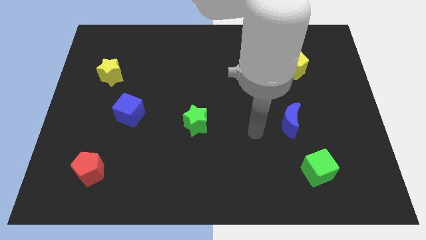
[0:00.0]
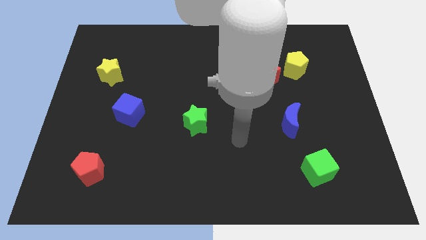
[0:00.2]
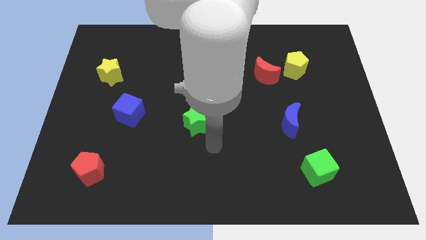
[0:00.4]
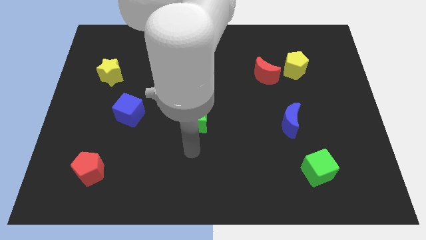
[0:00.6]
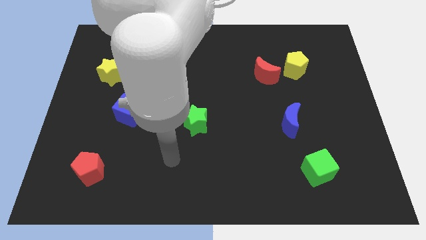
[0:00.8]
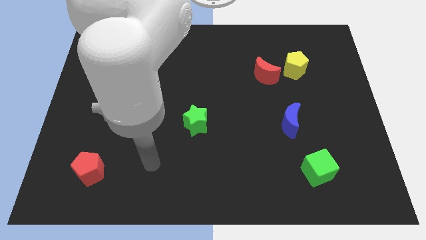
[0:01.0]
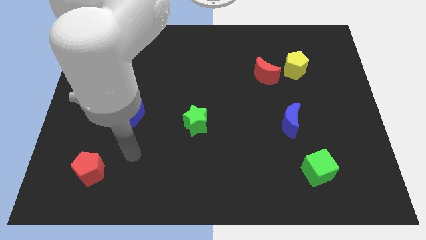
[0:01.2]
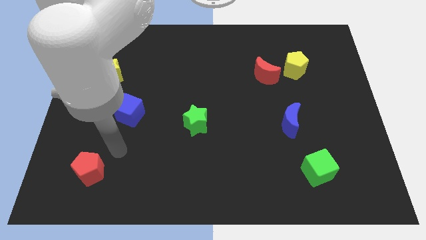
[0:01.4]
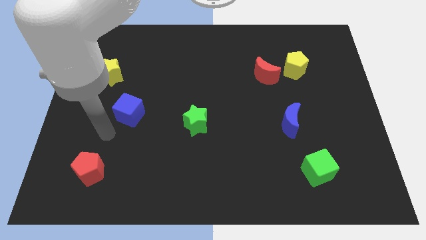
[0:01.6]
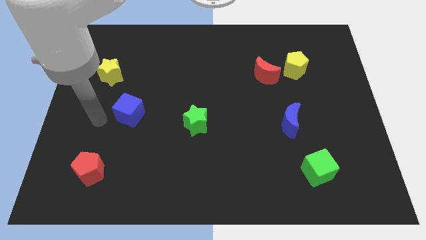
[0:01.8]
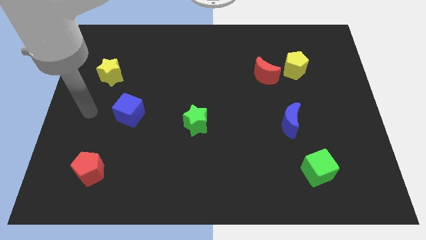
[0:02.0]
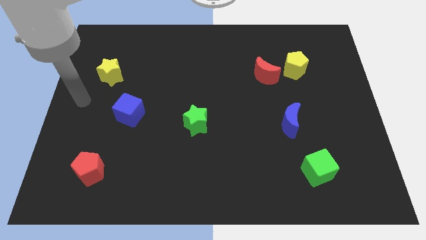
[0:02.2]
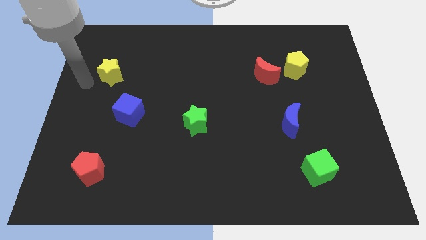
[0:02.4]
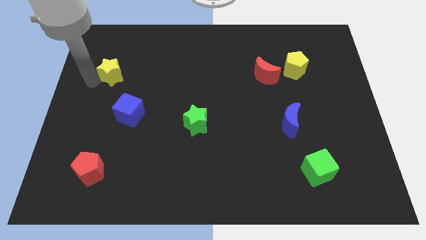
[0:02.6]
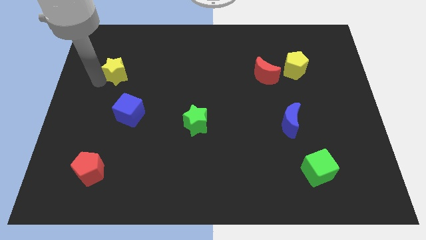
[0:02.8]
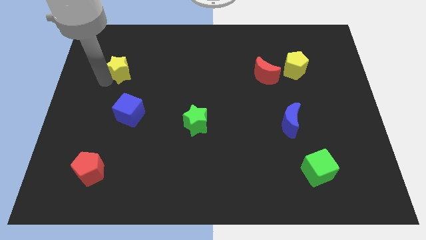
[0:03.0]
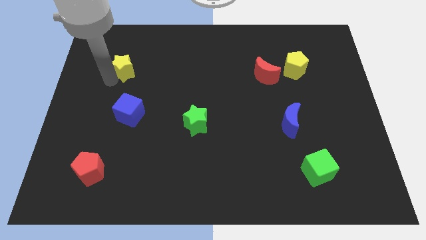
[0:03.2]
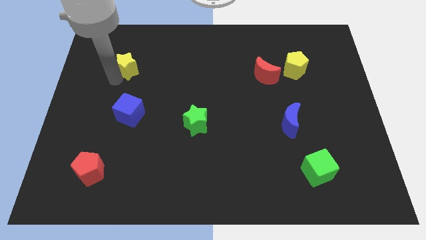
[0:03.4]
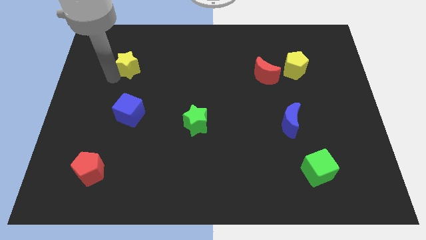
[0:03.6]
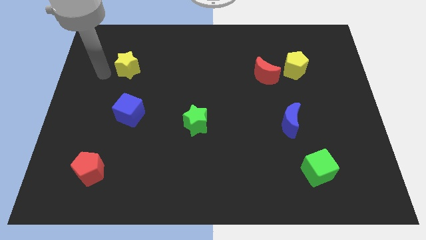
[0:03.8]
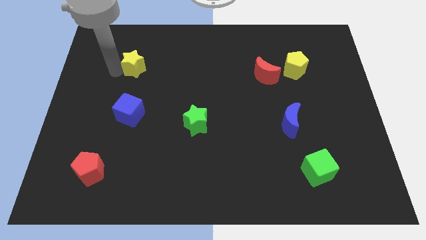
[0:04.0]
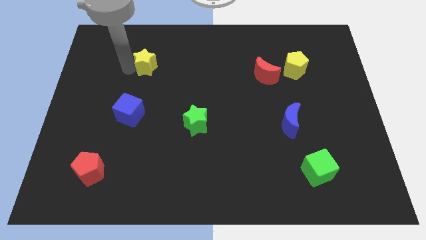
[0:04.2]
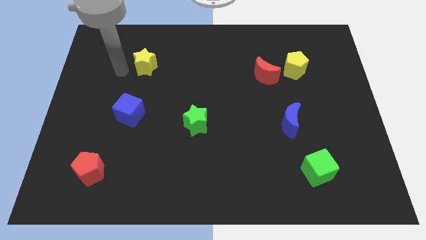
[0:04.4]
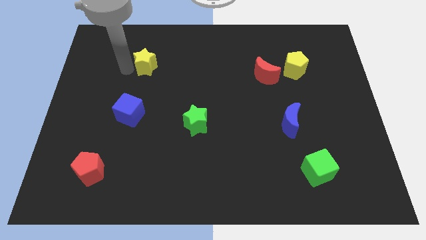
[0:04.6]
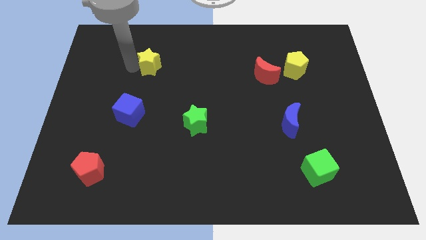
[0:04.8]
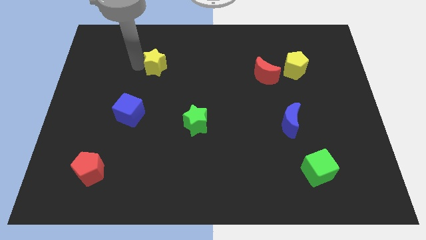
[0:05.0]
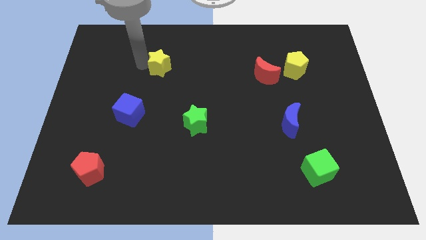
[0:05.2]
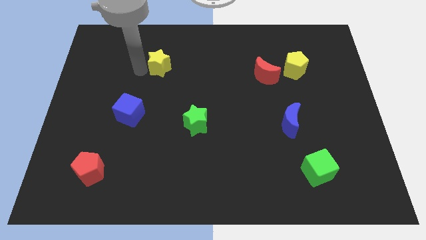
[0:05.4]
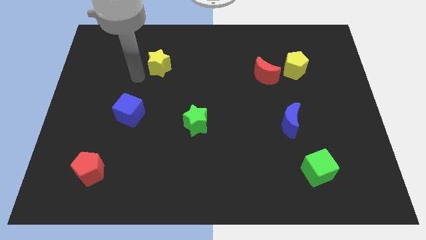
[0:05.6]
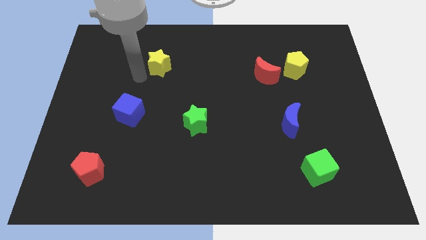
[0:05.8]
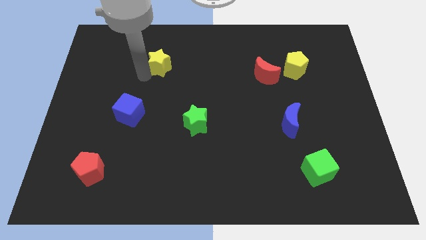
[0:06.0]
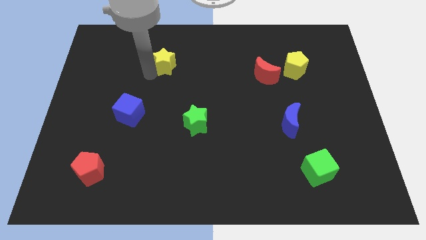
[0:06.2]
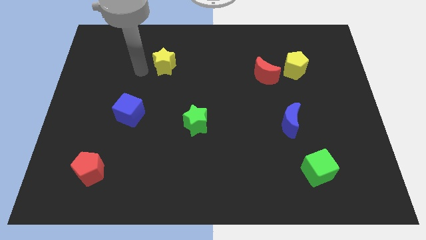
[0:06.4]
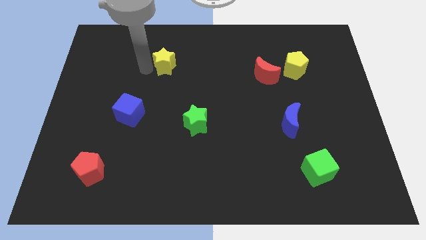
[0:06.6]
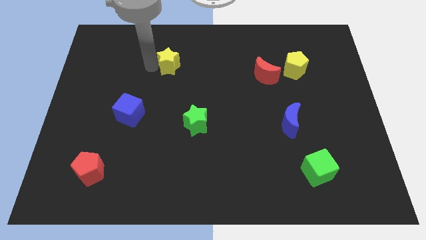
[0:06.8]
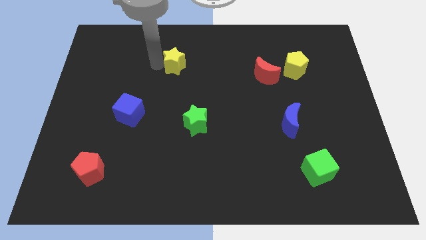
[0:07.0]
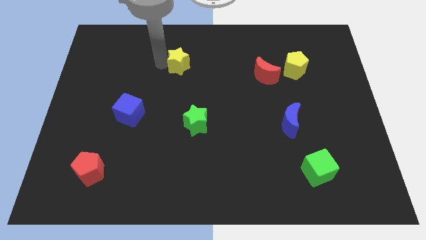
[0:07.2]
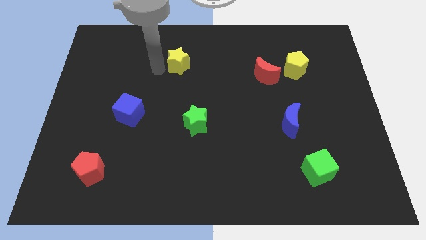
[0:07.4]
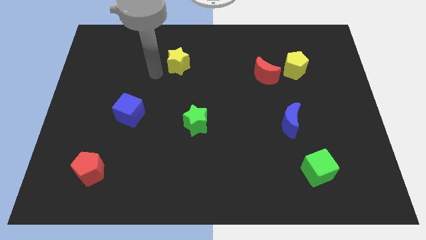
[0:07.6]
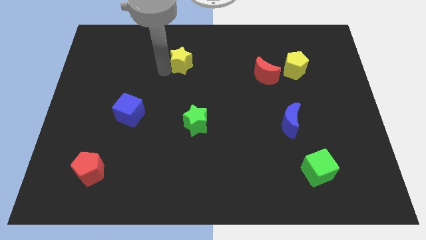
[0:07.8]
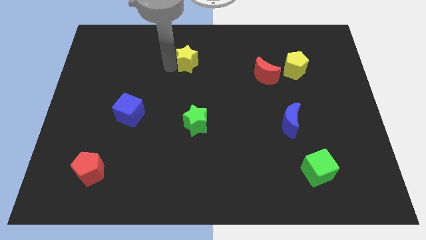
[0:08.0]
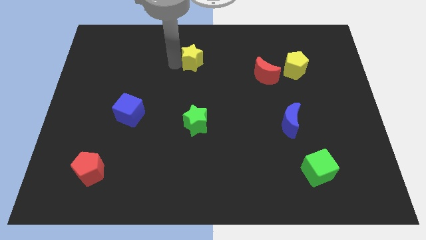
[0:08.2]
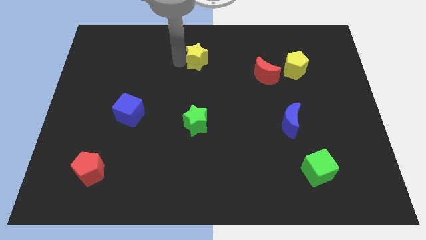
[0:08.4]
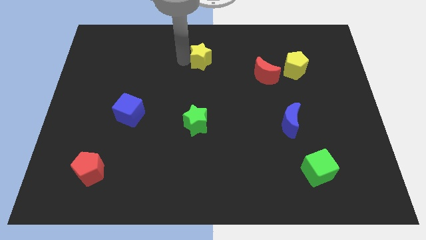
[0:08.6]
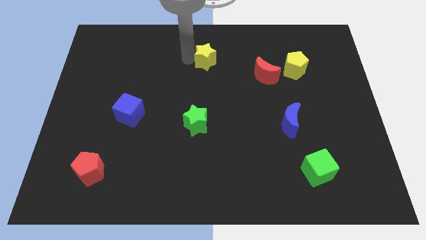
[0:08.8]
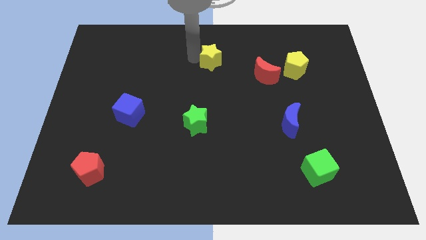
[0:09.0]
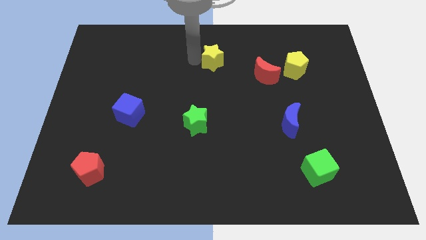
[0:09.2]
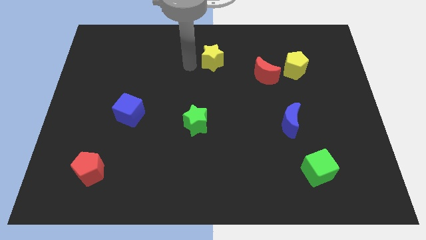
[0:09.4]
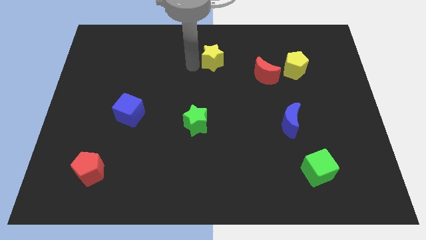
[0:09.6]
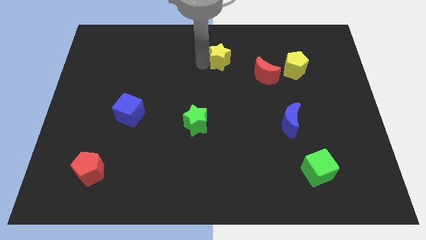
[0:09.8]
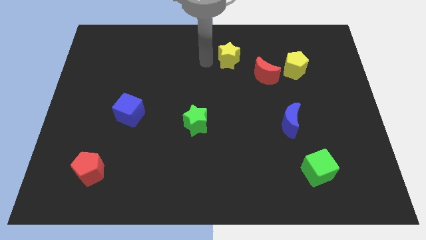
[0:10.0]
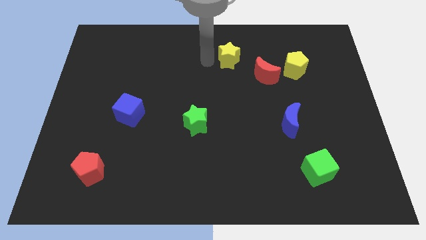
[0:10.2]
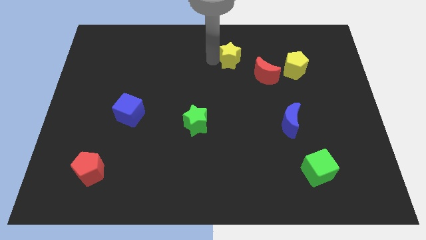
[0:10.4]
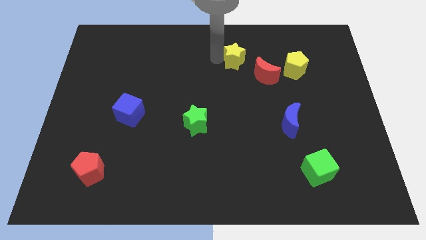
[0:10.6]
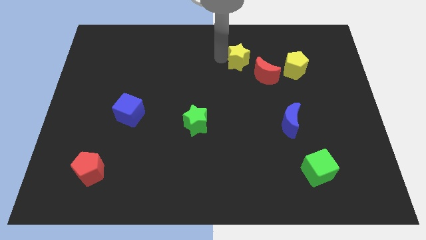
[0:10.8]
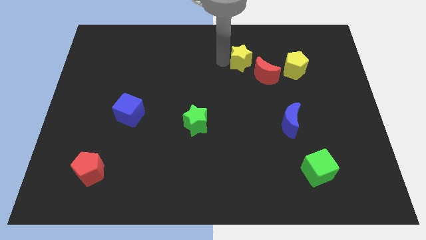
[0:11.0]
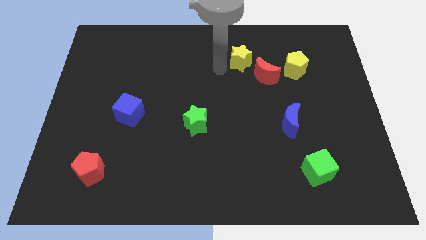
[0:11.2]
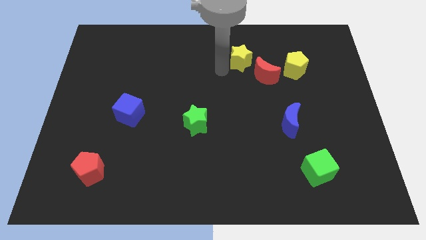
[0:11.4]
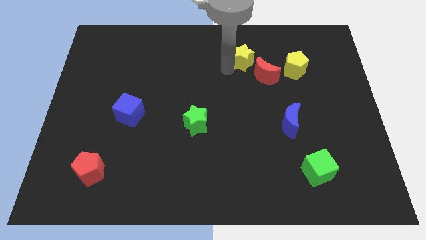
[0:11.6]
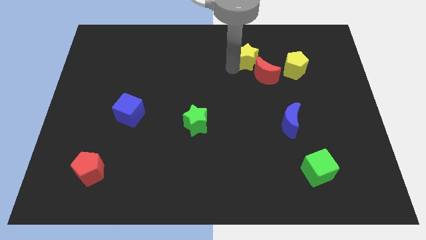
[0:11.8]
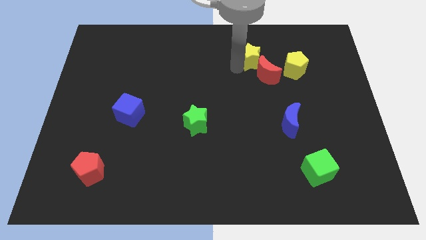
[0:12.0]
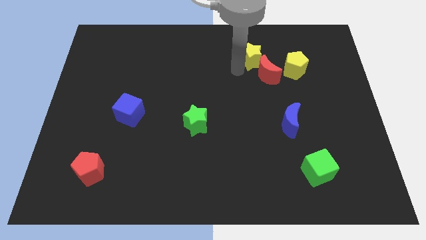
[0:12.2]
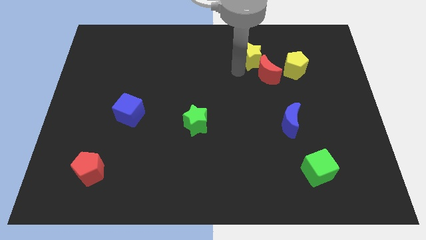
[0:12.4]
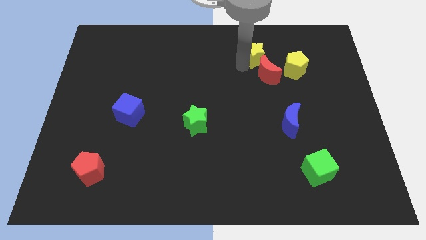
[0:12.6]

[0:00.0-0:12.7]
push the yellow star to the top left of the yellow pentagon

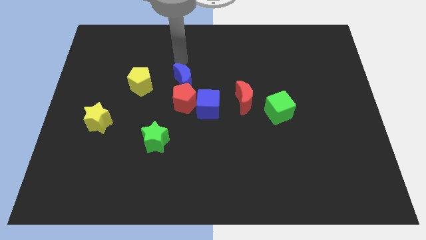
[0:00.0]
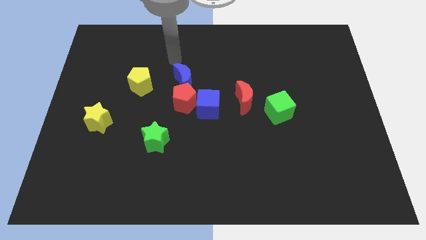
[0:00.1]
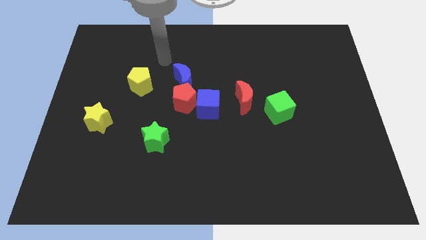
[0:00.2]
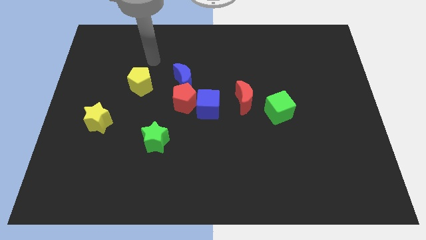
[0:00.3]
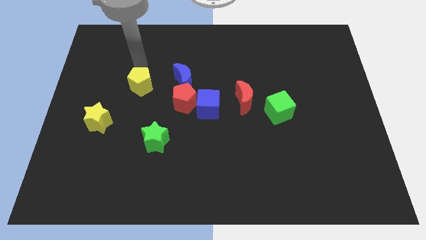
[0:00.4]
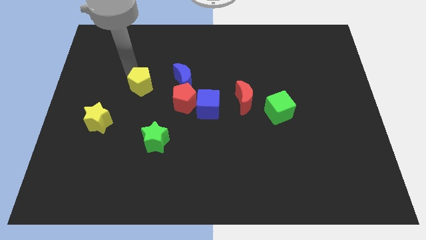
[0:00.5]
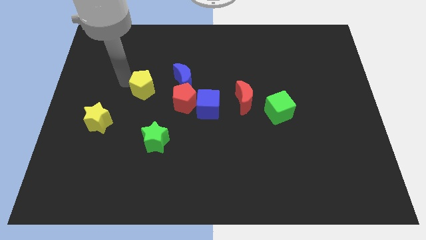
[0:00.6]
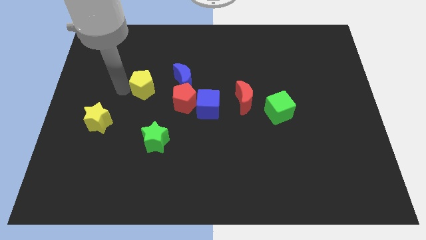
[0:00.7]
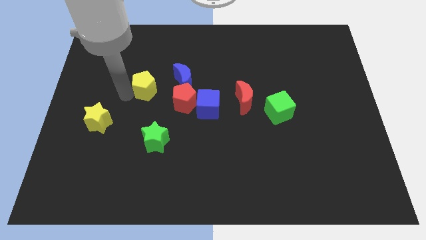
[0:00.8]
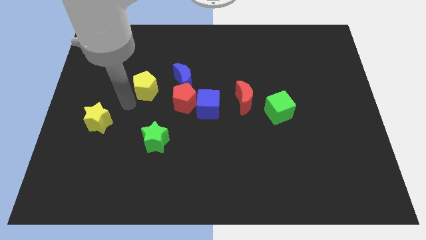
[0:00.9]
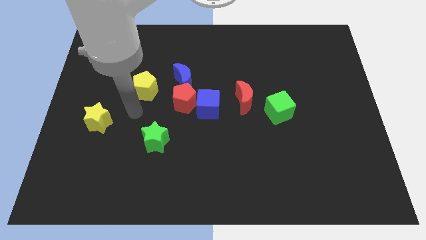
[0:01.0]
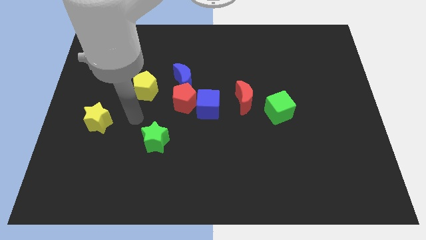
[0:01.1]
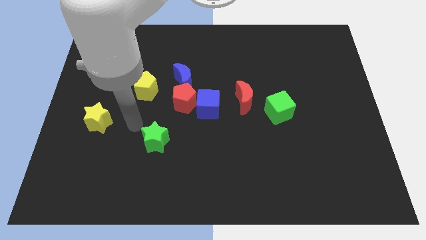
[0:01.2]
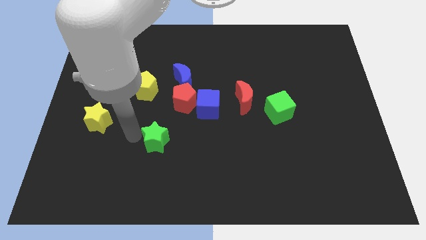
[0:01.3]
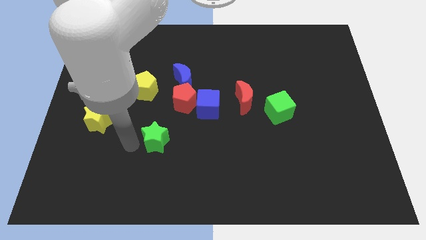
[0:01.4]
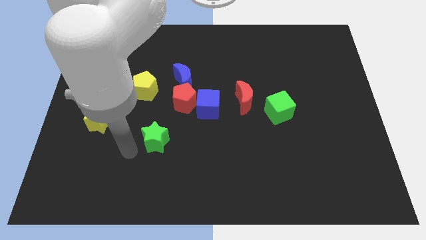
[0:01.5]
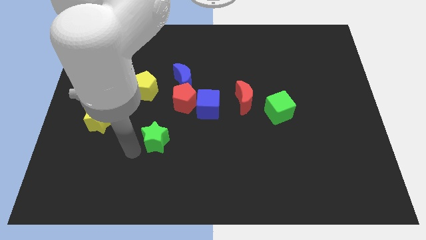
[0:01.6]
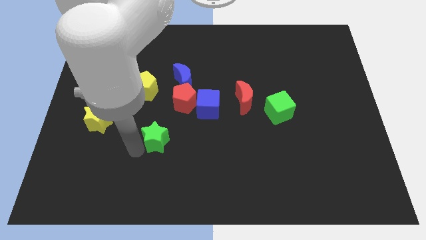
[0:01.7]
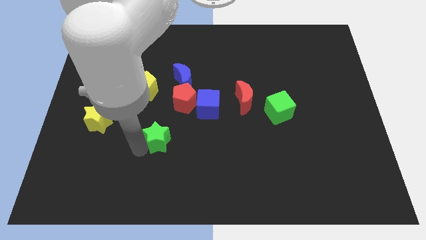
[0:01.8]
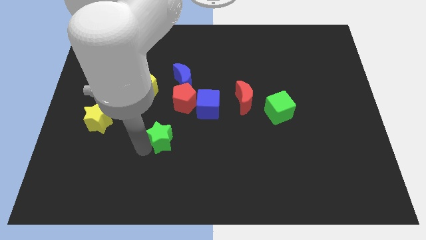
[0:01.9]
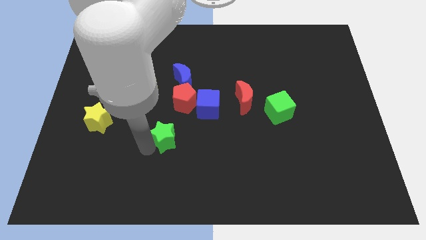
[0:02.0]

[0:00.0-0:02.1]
put the green star to the bottom left side of the blue cube
